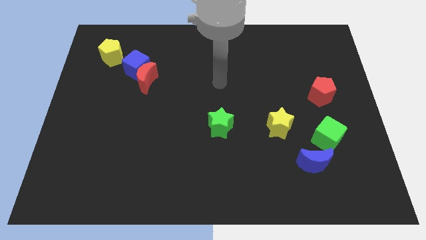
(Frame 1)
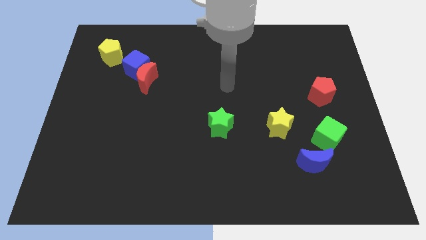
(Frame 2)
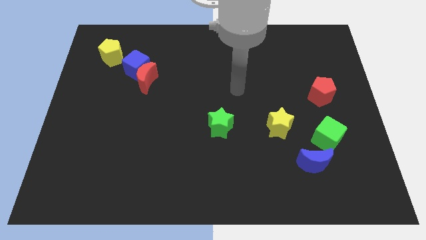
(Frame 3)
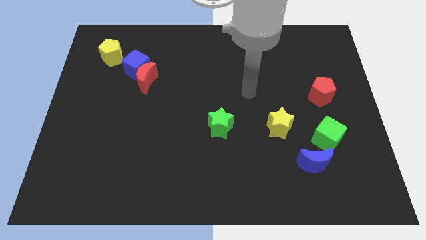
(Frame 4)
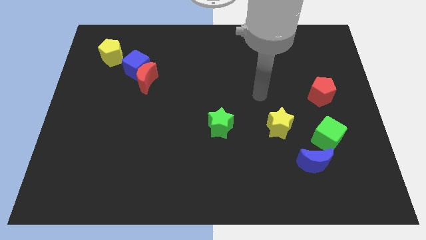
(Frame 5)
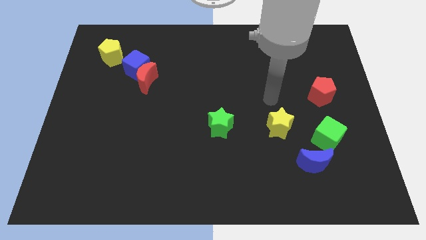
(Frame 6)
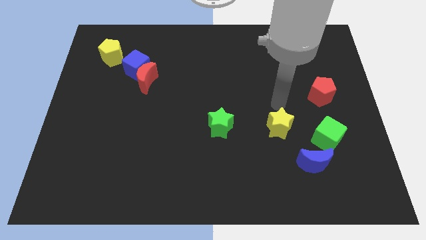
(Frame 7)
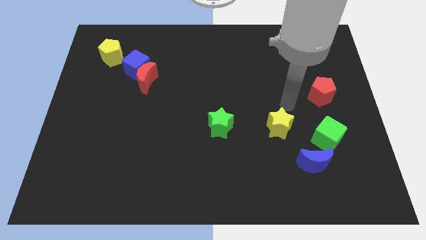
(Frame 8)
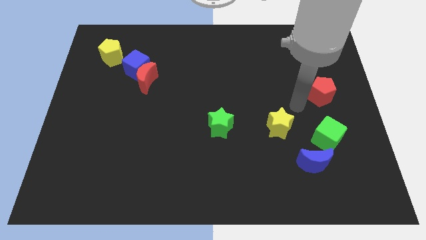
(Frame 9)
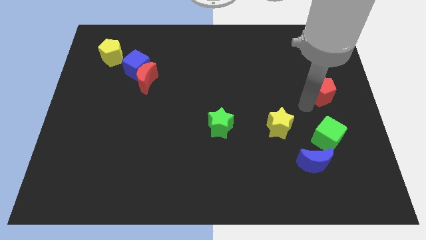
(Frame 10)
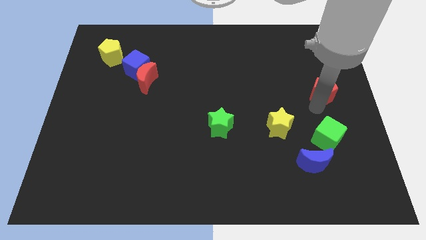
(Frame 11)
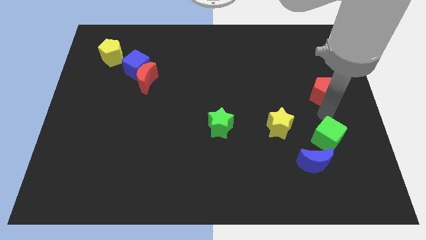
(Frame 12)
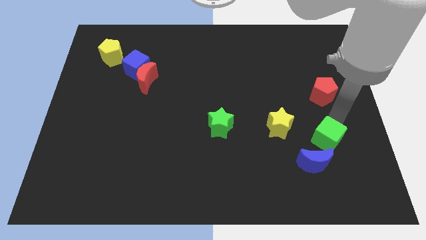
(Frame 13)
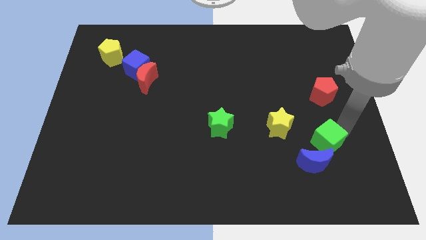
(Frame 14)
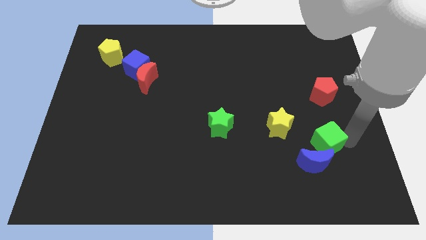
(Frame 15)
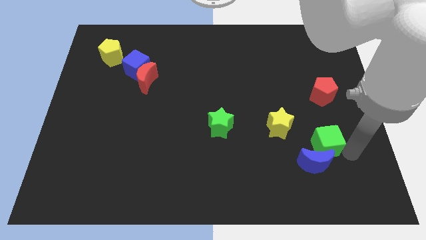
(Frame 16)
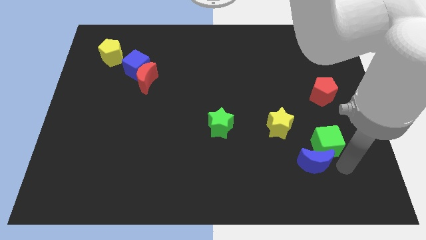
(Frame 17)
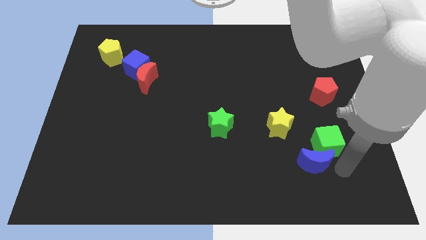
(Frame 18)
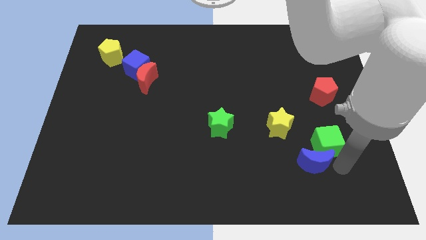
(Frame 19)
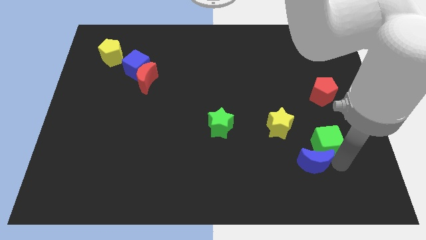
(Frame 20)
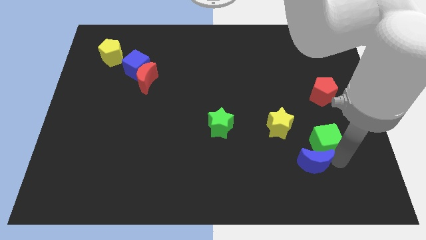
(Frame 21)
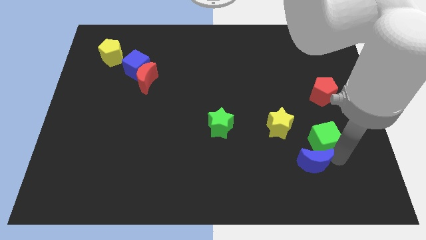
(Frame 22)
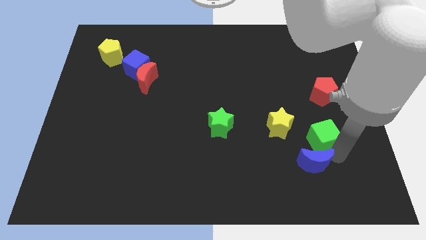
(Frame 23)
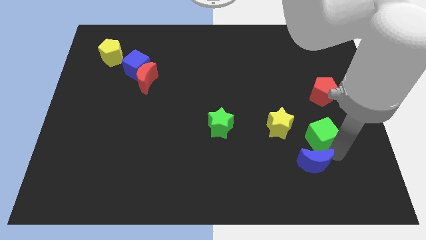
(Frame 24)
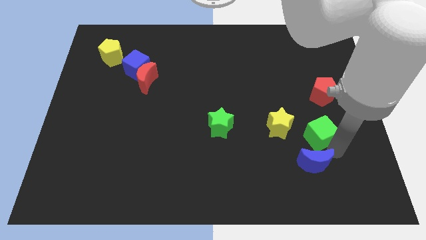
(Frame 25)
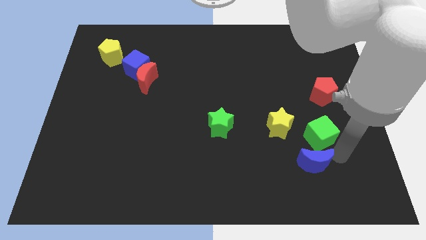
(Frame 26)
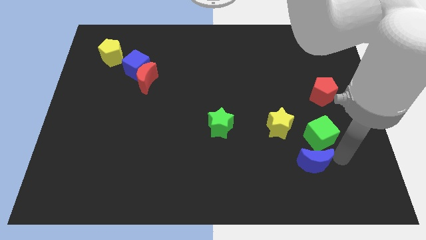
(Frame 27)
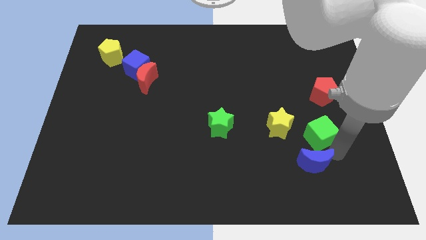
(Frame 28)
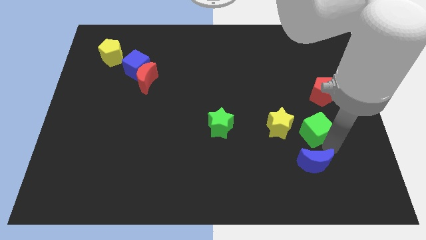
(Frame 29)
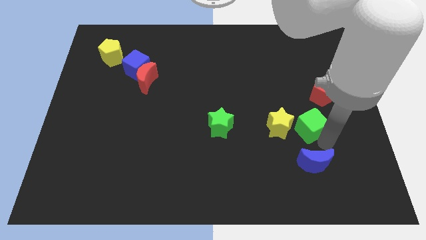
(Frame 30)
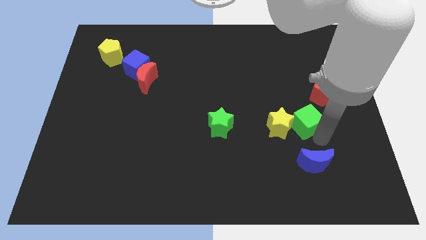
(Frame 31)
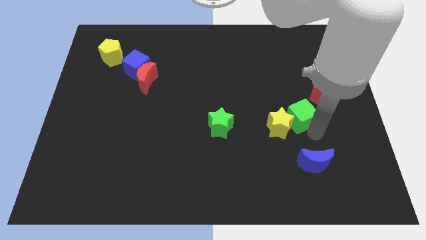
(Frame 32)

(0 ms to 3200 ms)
move the green cube up and left somewhat

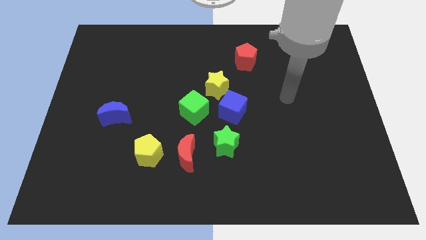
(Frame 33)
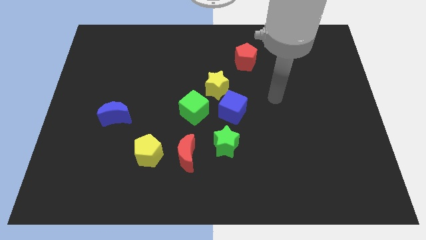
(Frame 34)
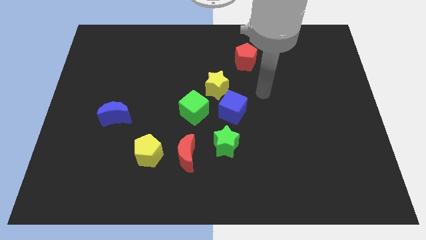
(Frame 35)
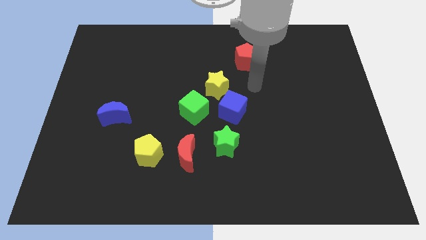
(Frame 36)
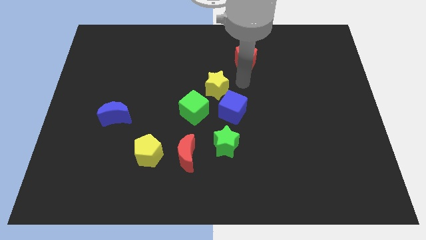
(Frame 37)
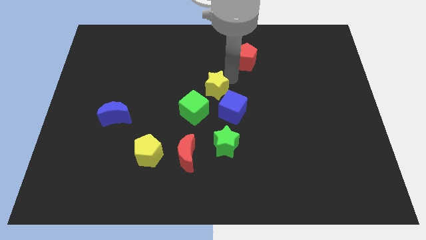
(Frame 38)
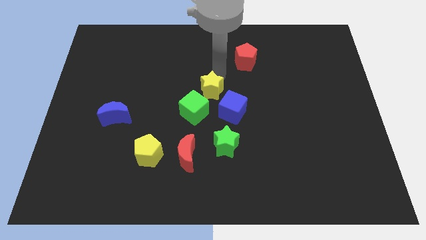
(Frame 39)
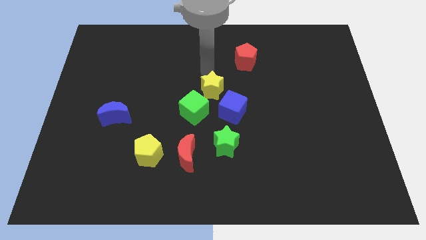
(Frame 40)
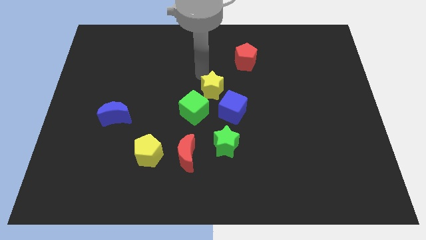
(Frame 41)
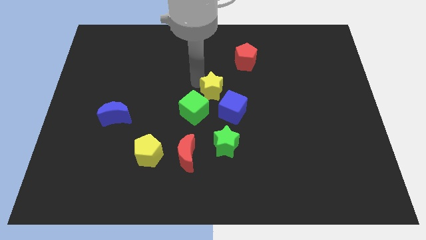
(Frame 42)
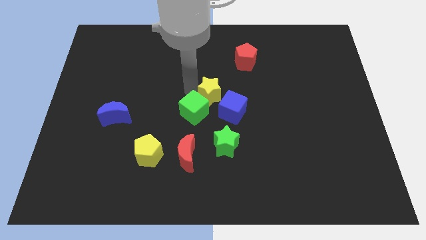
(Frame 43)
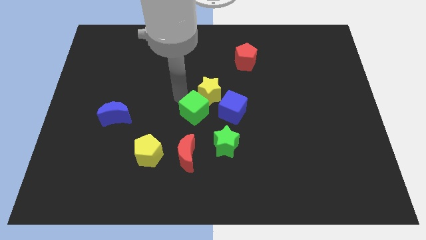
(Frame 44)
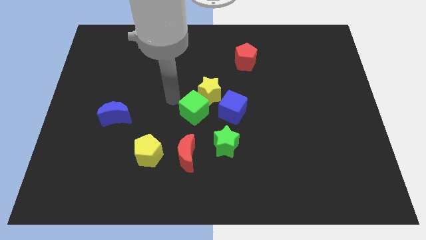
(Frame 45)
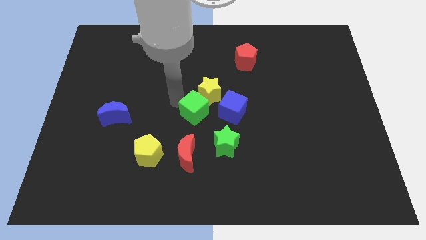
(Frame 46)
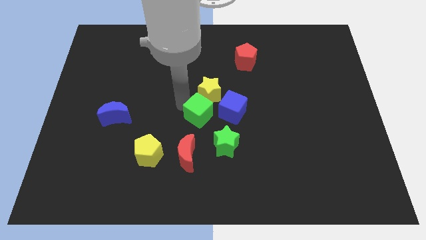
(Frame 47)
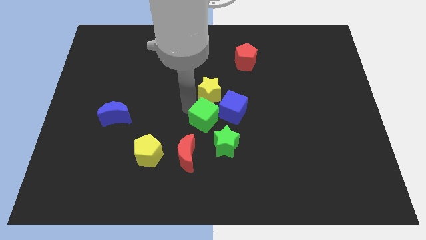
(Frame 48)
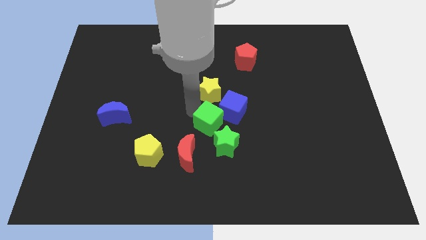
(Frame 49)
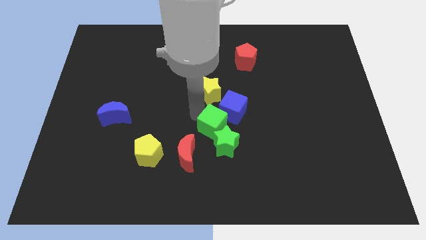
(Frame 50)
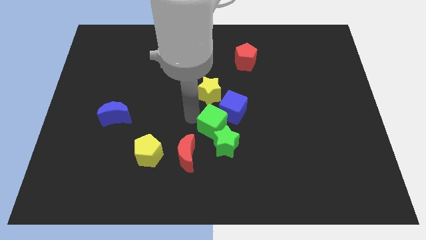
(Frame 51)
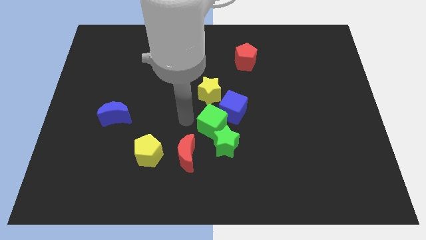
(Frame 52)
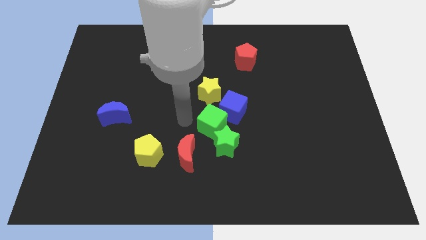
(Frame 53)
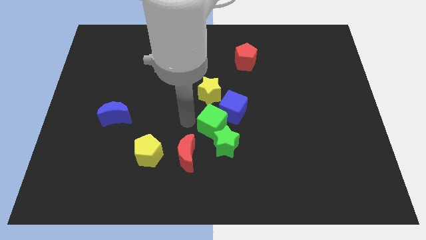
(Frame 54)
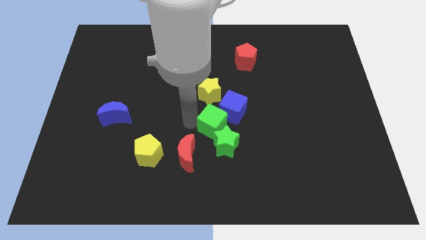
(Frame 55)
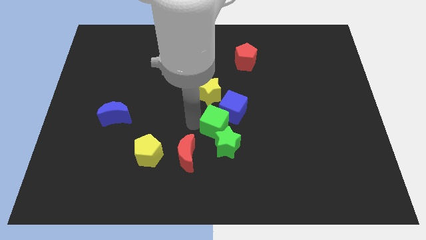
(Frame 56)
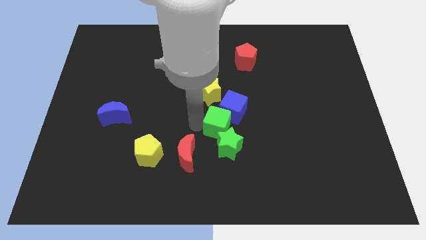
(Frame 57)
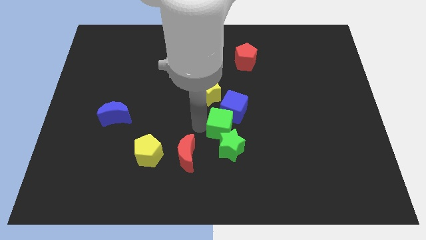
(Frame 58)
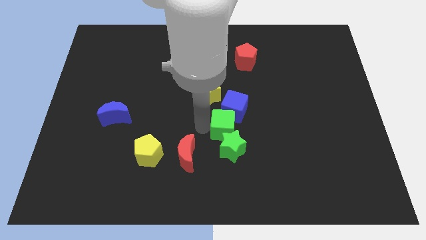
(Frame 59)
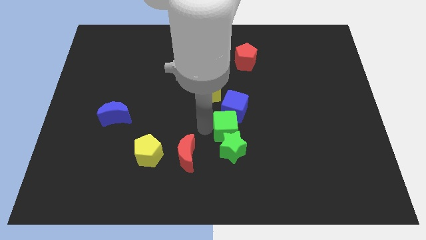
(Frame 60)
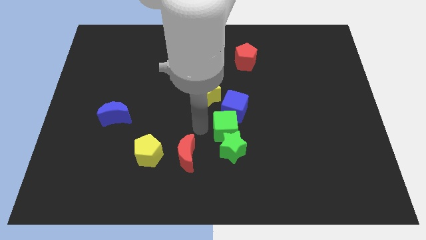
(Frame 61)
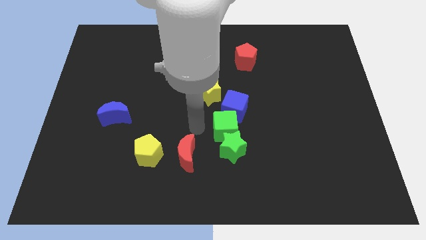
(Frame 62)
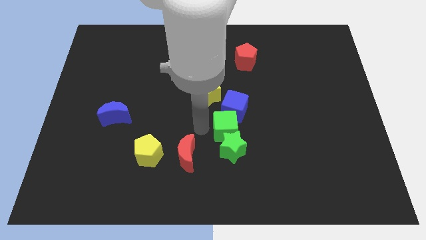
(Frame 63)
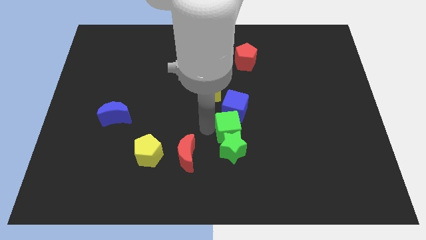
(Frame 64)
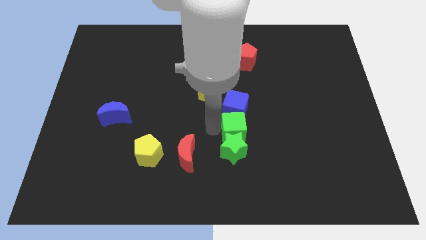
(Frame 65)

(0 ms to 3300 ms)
slightly slide the green cube right

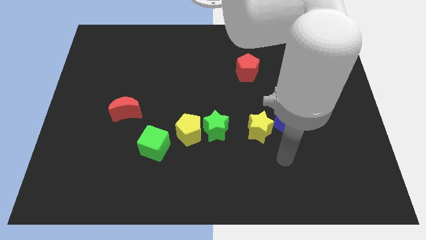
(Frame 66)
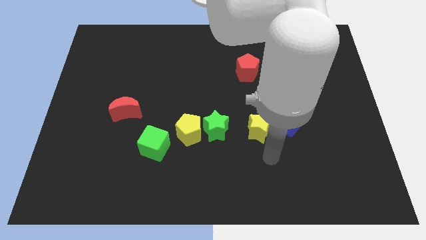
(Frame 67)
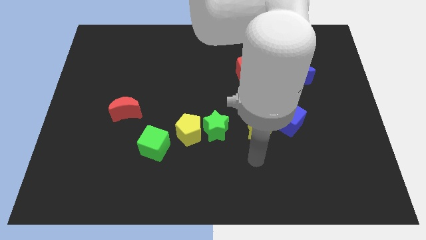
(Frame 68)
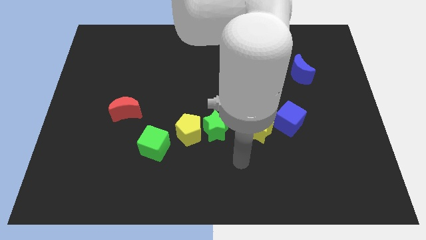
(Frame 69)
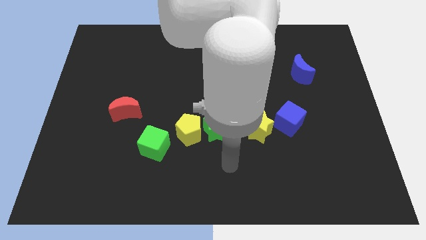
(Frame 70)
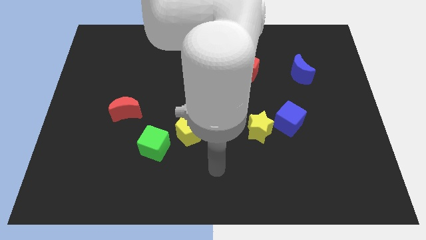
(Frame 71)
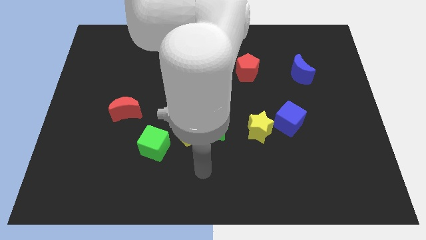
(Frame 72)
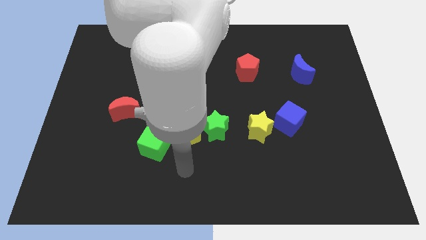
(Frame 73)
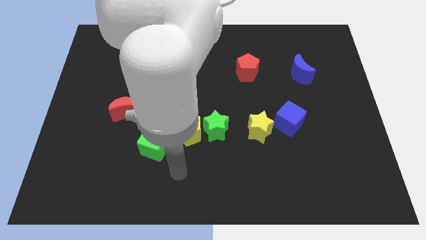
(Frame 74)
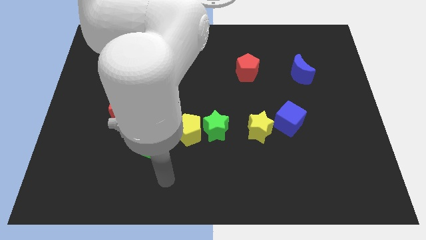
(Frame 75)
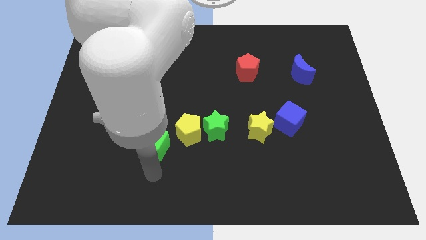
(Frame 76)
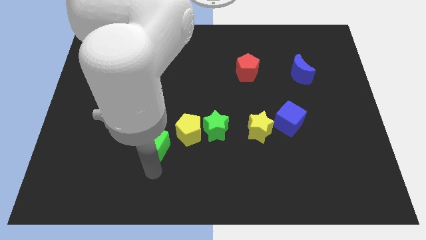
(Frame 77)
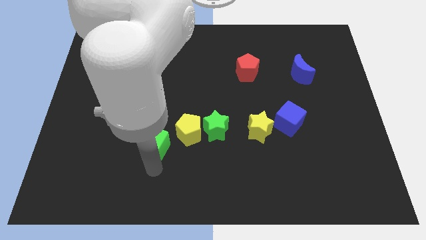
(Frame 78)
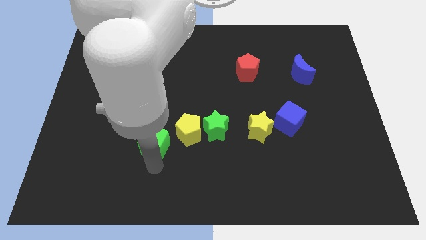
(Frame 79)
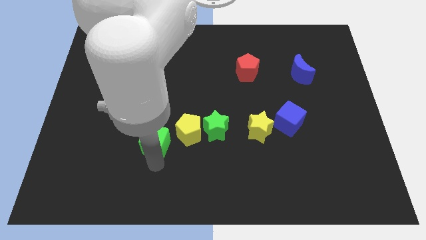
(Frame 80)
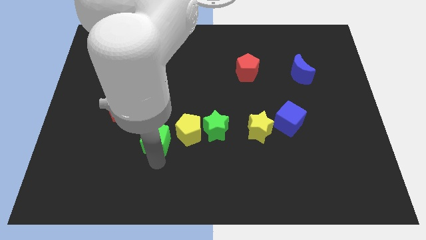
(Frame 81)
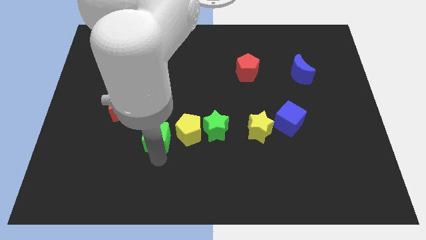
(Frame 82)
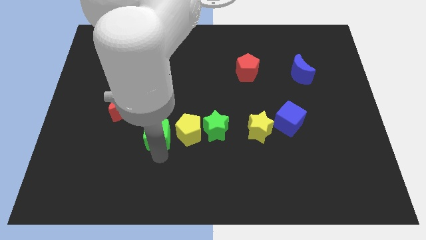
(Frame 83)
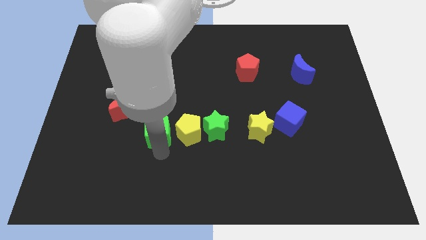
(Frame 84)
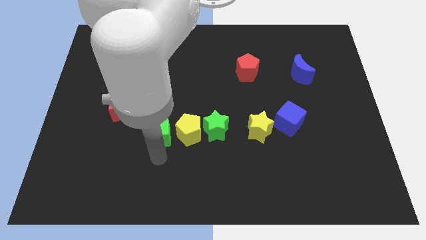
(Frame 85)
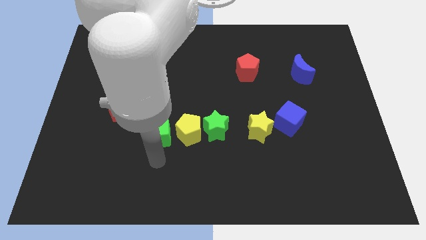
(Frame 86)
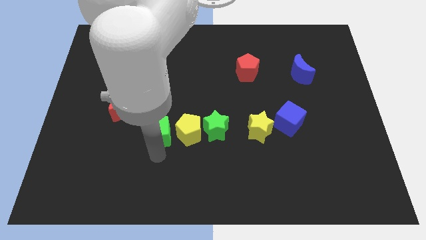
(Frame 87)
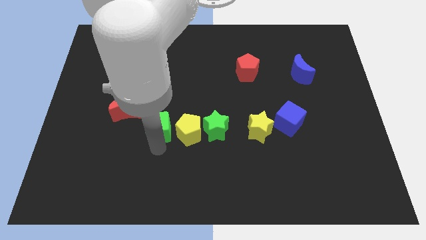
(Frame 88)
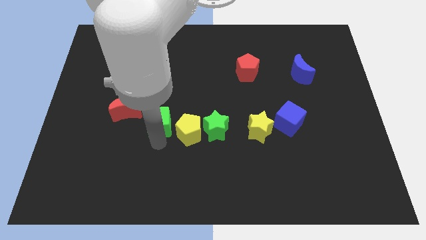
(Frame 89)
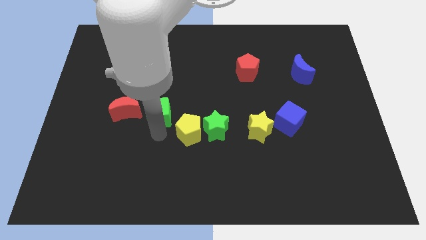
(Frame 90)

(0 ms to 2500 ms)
push the green cube upwards a bit
